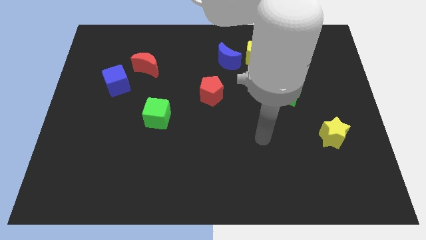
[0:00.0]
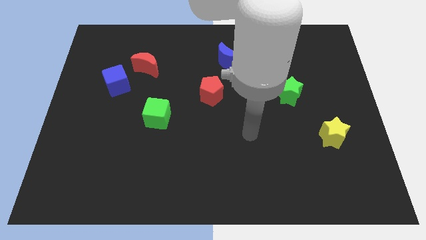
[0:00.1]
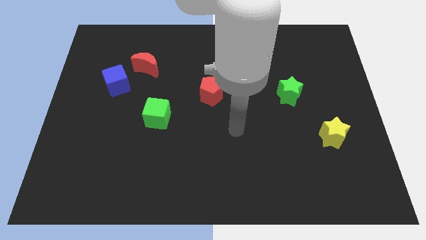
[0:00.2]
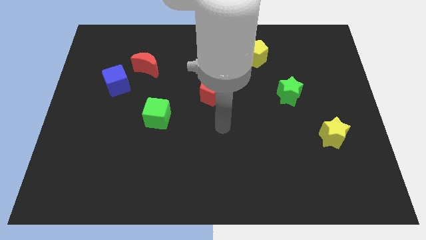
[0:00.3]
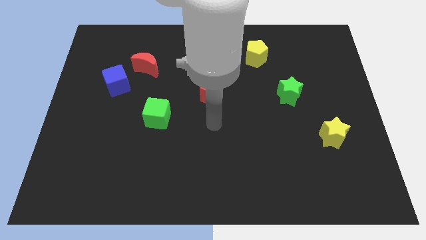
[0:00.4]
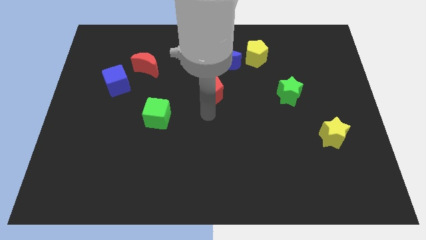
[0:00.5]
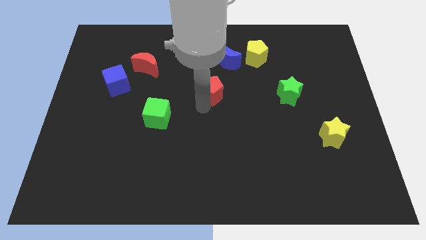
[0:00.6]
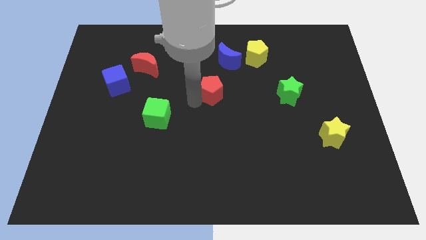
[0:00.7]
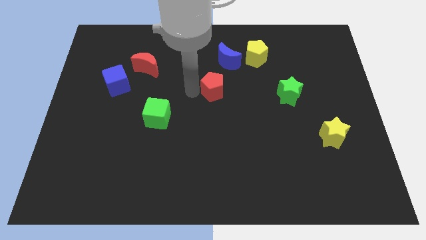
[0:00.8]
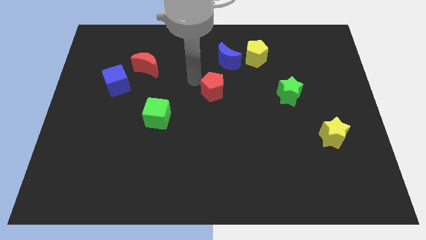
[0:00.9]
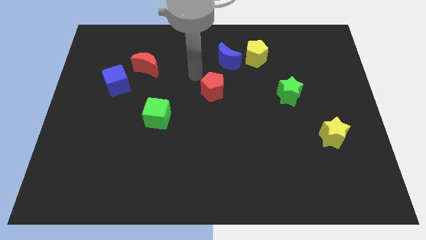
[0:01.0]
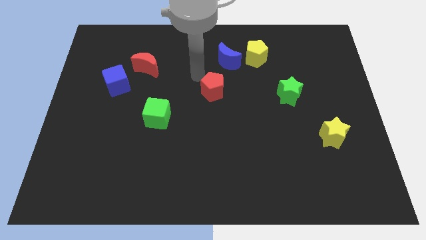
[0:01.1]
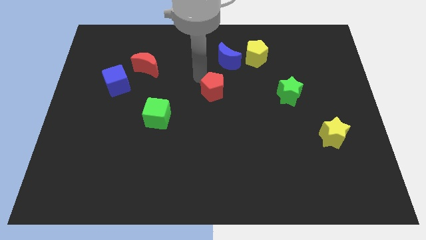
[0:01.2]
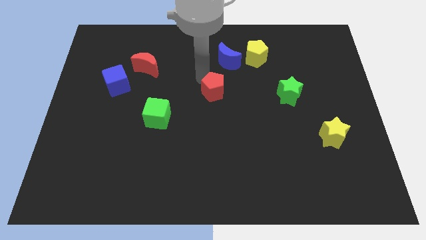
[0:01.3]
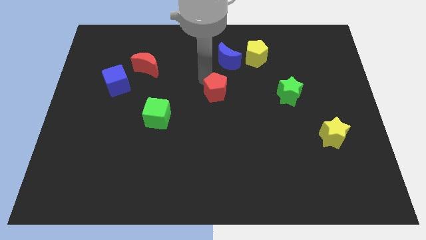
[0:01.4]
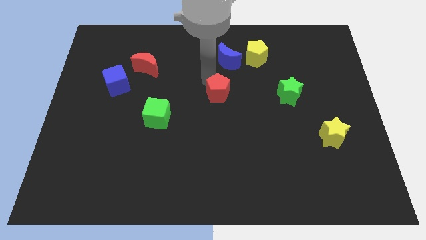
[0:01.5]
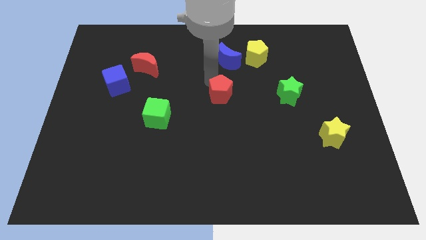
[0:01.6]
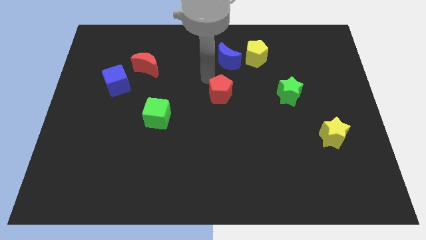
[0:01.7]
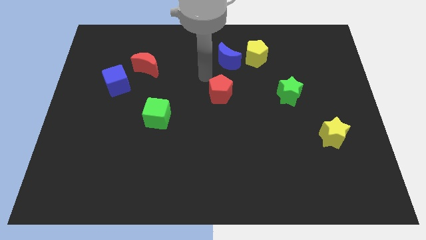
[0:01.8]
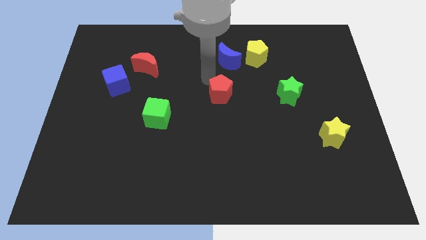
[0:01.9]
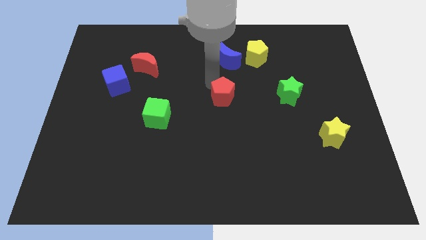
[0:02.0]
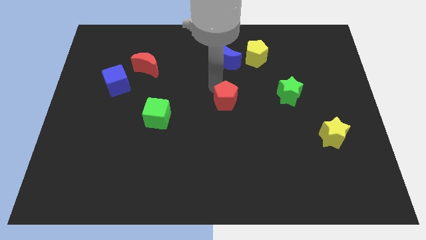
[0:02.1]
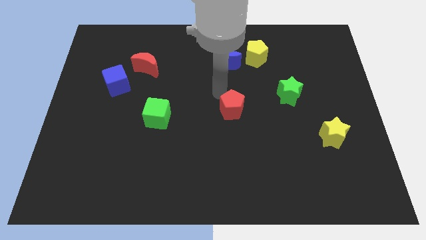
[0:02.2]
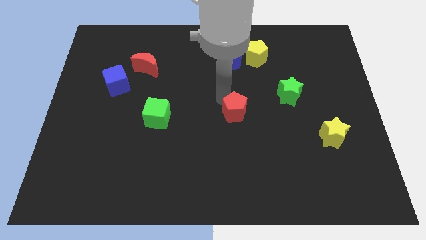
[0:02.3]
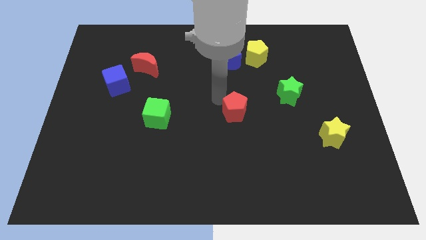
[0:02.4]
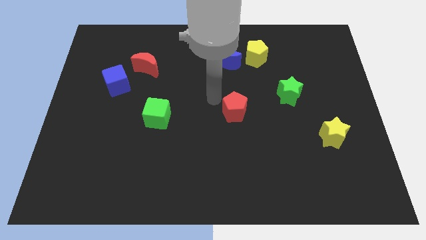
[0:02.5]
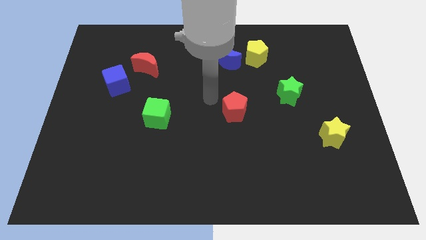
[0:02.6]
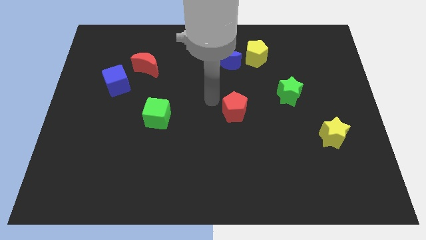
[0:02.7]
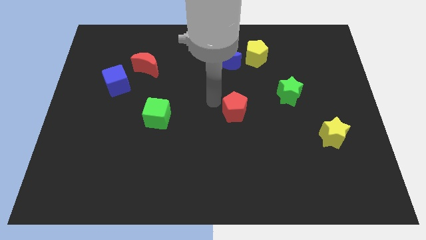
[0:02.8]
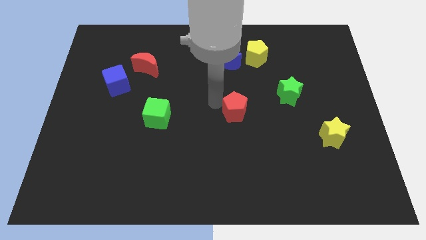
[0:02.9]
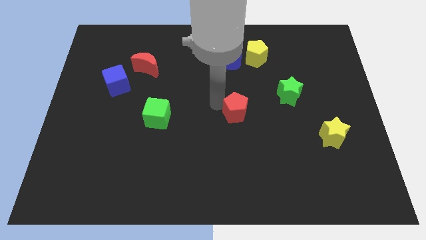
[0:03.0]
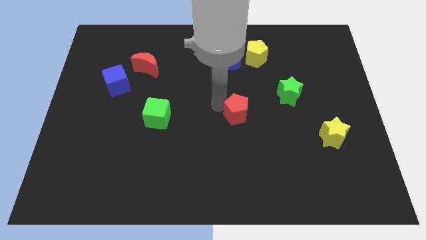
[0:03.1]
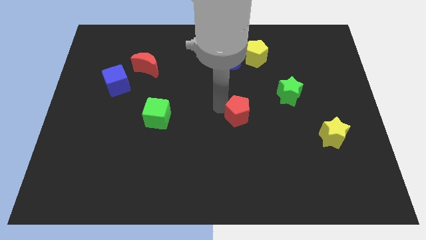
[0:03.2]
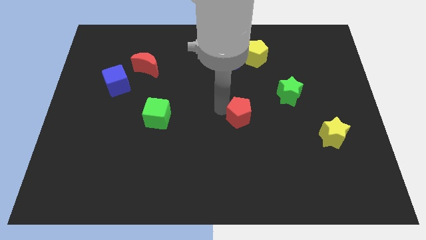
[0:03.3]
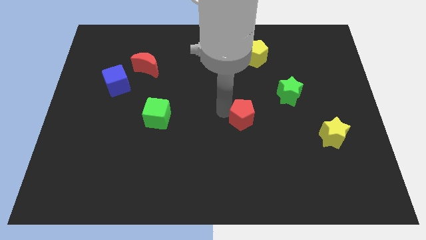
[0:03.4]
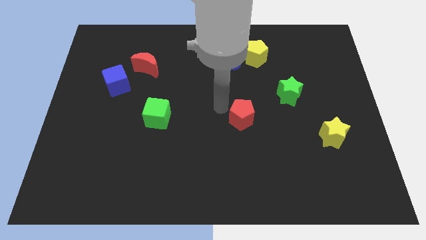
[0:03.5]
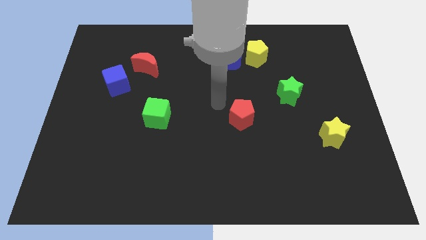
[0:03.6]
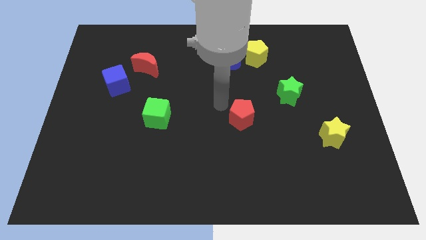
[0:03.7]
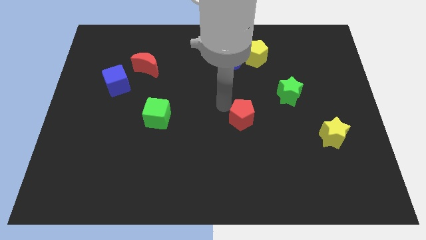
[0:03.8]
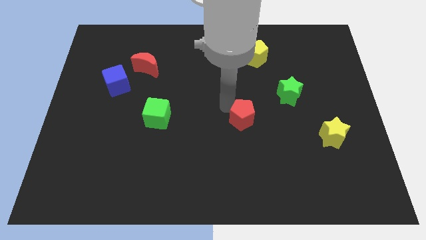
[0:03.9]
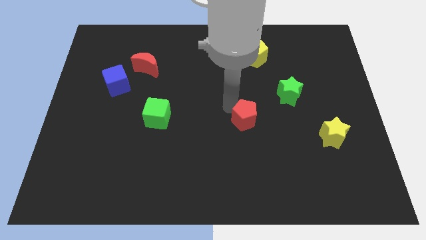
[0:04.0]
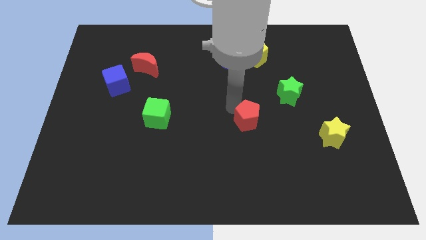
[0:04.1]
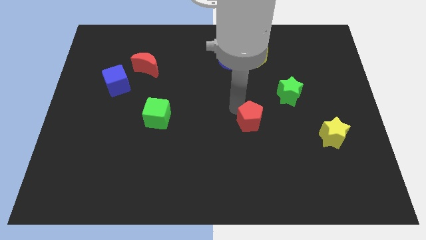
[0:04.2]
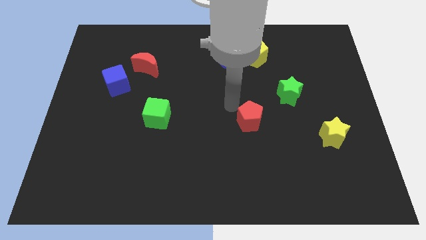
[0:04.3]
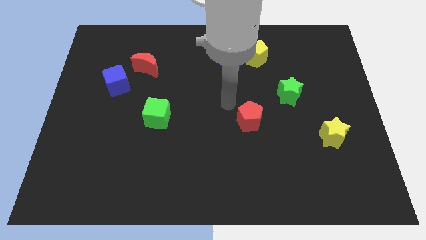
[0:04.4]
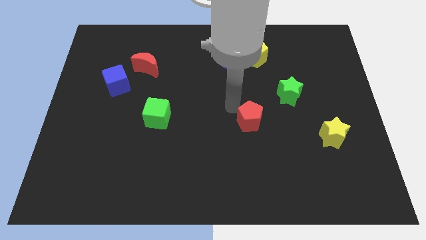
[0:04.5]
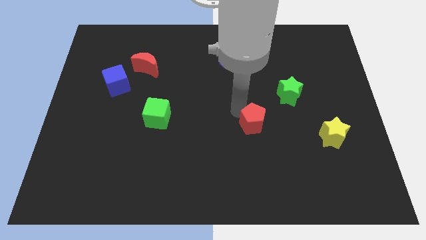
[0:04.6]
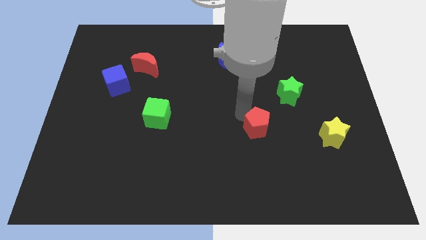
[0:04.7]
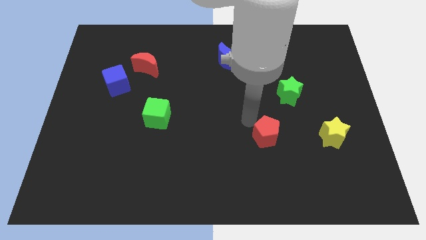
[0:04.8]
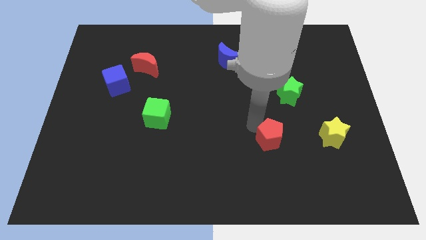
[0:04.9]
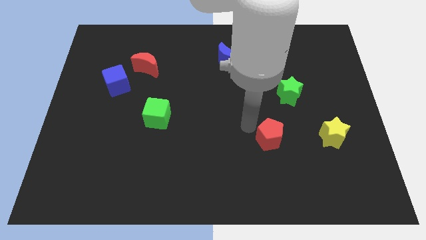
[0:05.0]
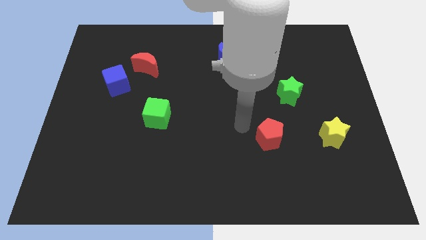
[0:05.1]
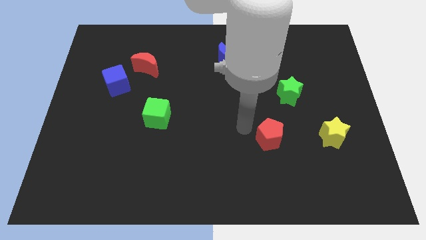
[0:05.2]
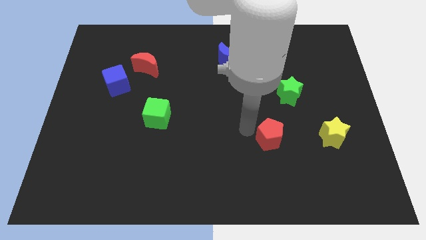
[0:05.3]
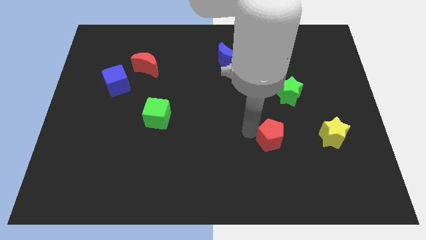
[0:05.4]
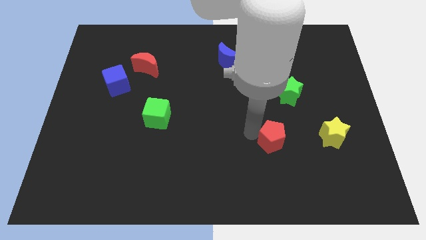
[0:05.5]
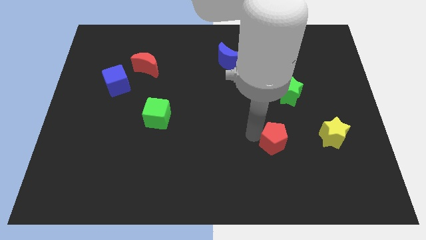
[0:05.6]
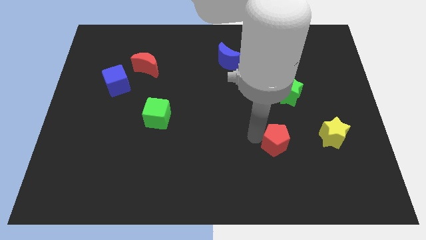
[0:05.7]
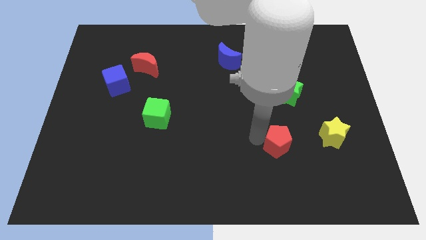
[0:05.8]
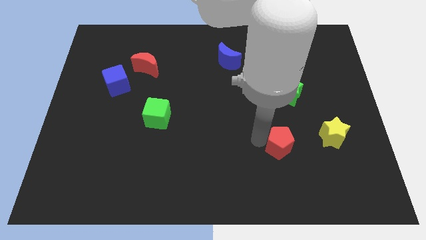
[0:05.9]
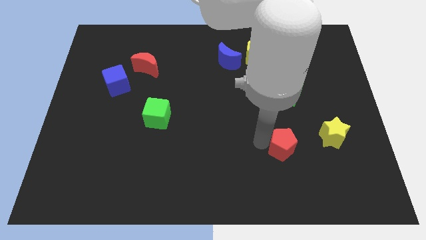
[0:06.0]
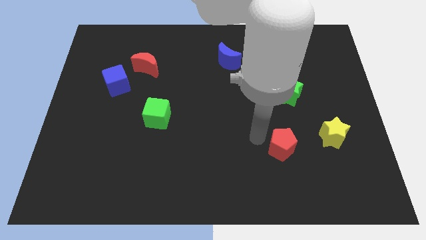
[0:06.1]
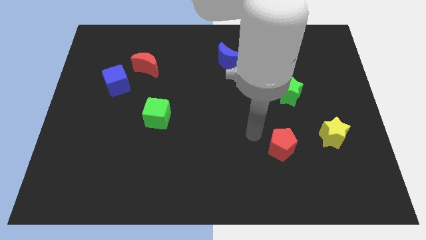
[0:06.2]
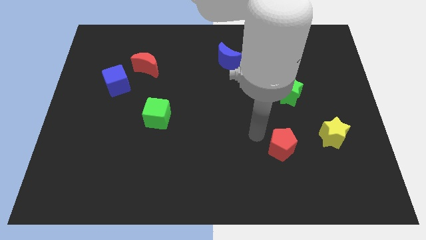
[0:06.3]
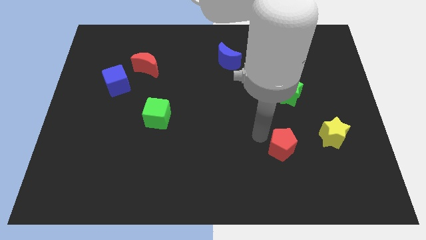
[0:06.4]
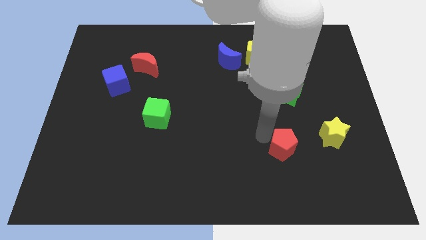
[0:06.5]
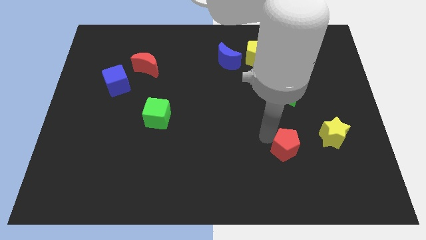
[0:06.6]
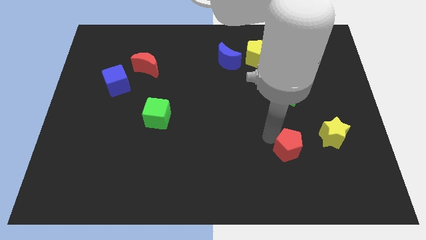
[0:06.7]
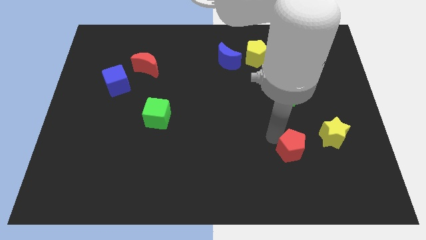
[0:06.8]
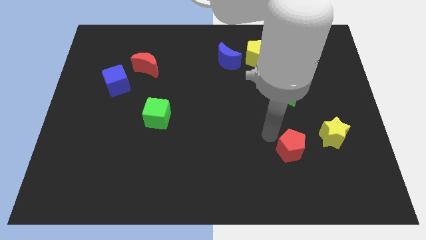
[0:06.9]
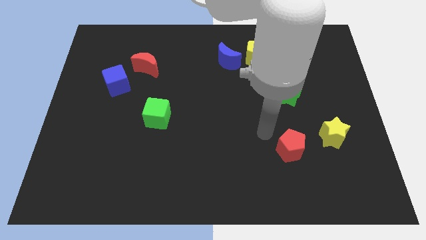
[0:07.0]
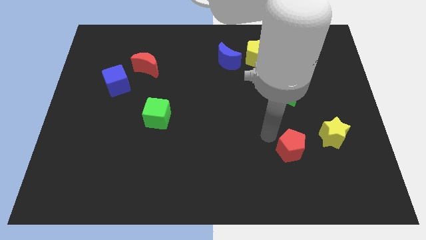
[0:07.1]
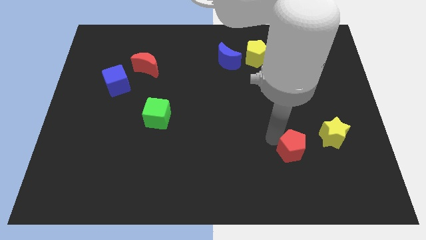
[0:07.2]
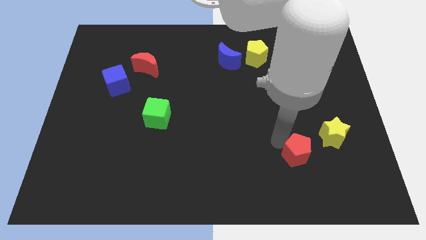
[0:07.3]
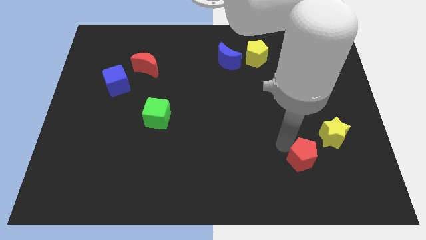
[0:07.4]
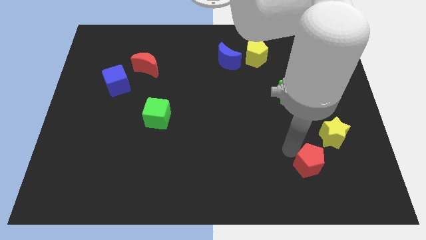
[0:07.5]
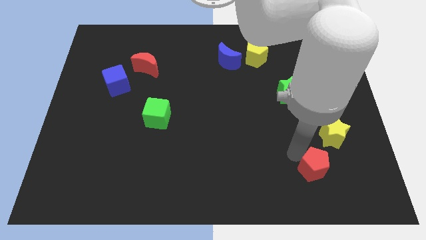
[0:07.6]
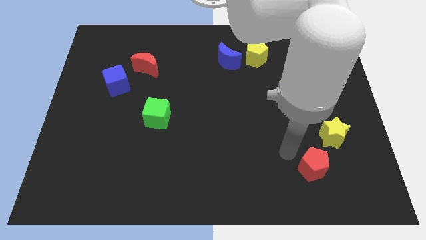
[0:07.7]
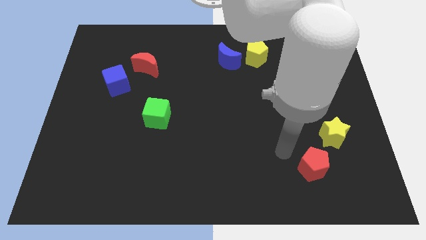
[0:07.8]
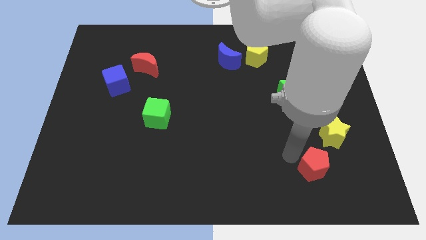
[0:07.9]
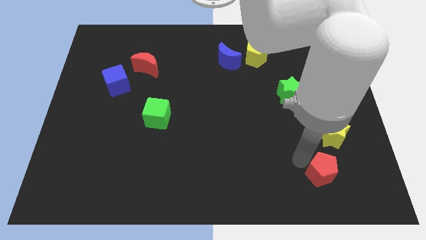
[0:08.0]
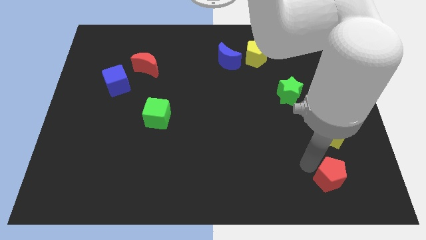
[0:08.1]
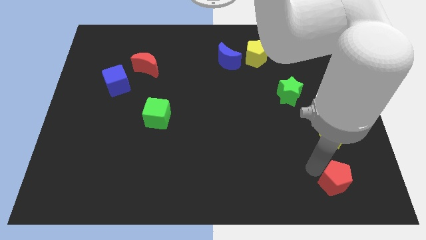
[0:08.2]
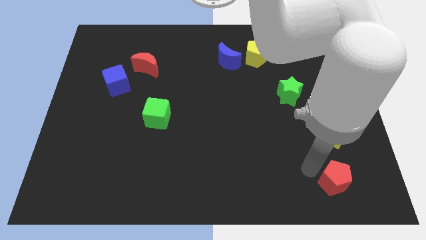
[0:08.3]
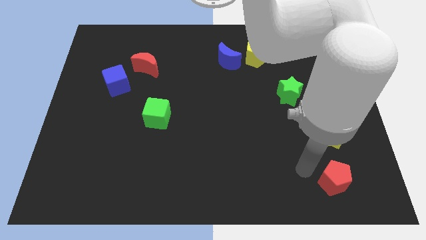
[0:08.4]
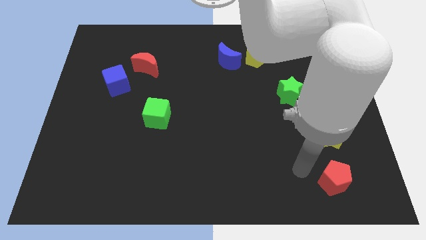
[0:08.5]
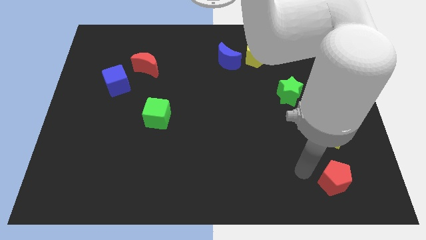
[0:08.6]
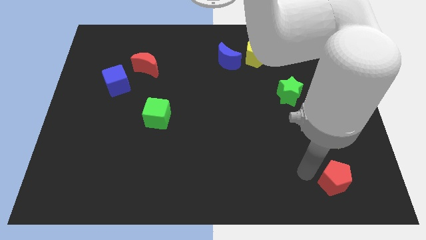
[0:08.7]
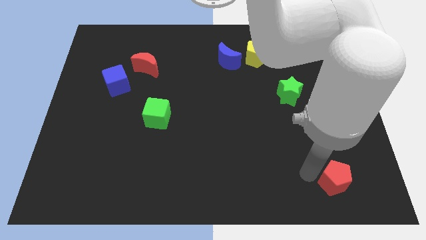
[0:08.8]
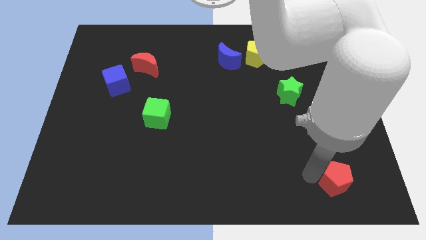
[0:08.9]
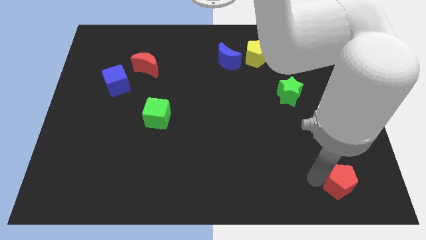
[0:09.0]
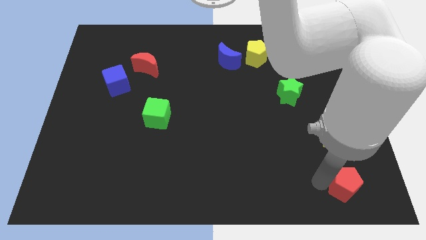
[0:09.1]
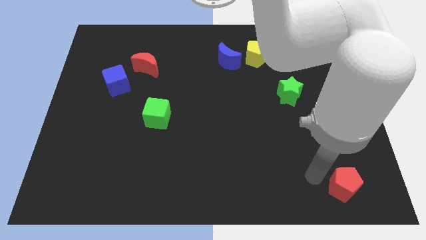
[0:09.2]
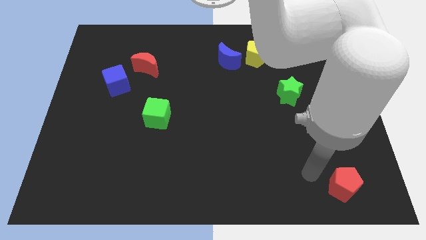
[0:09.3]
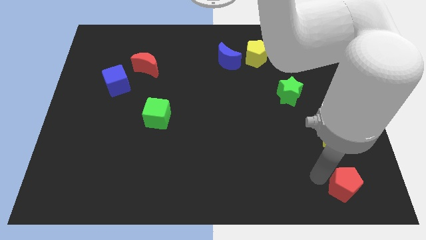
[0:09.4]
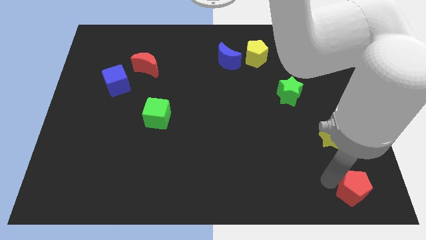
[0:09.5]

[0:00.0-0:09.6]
put the red pentagon to the bottom right corner
